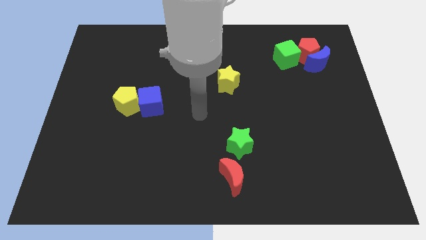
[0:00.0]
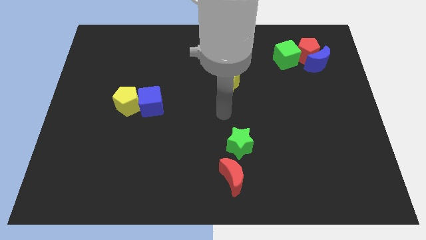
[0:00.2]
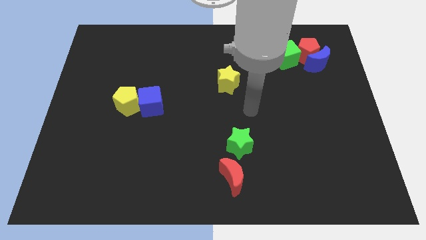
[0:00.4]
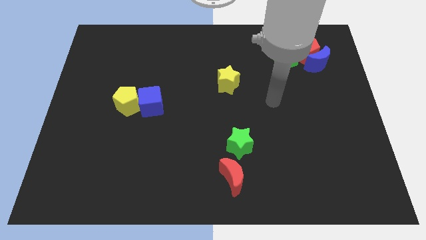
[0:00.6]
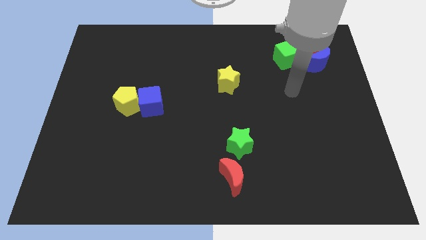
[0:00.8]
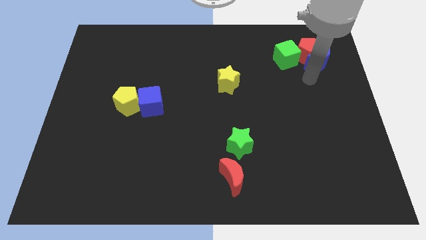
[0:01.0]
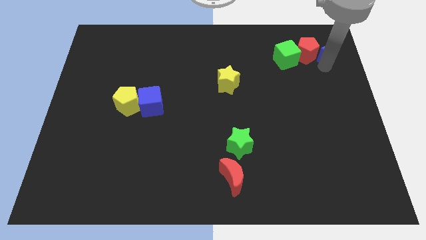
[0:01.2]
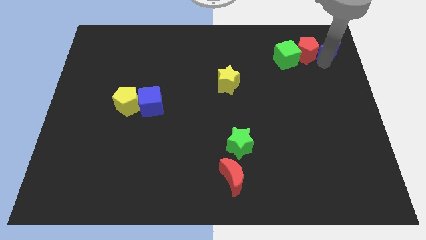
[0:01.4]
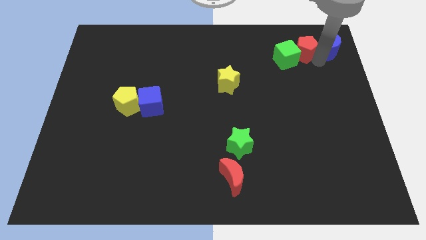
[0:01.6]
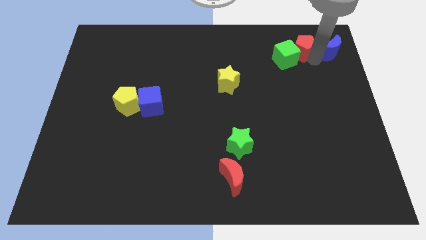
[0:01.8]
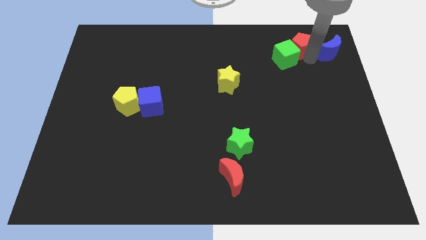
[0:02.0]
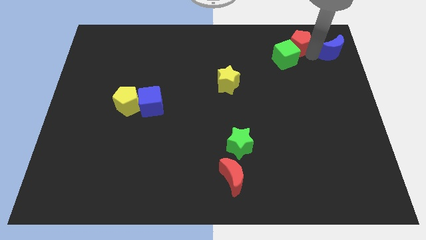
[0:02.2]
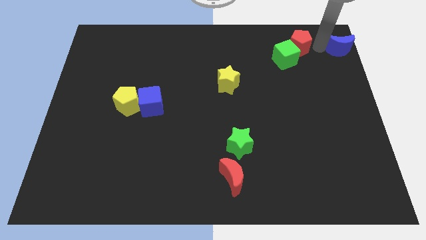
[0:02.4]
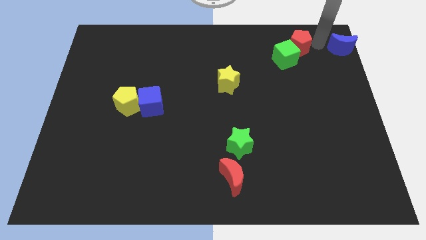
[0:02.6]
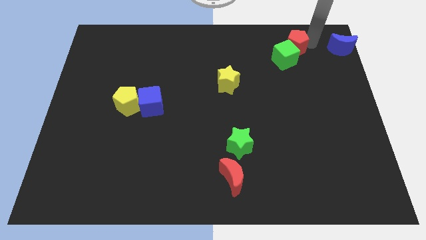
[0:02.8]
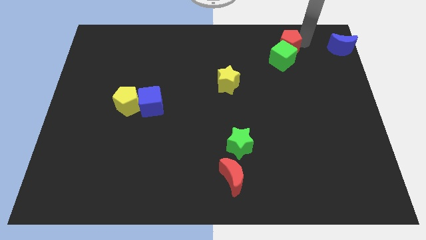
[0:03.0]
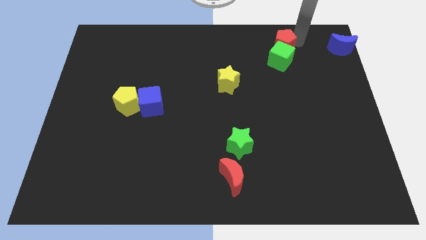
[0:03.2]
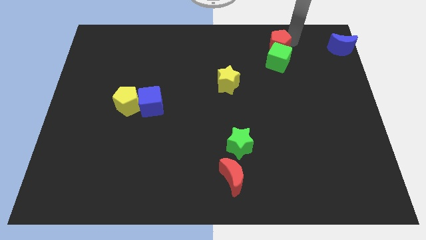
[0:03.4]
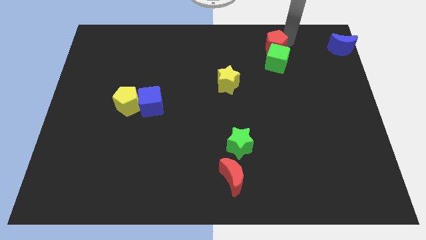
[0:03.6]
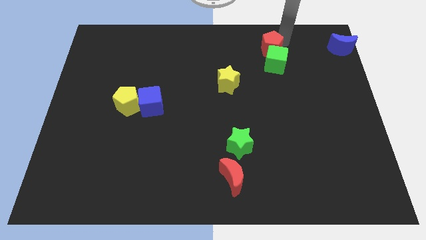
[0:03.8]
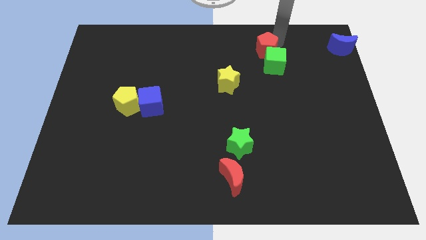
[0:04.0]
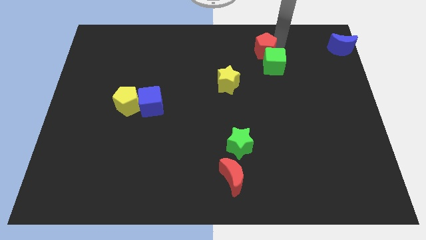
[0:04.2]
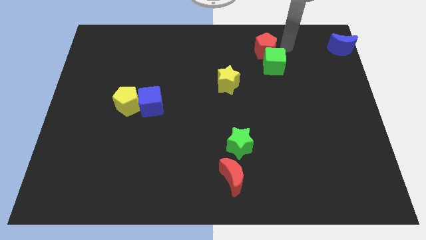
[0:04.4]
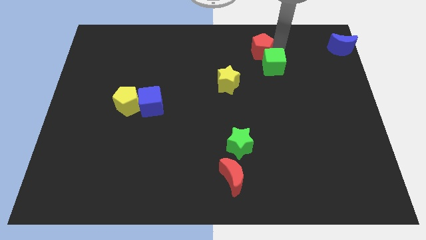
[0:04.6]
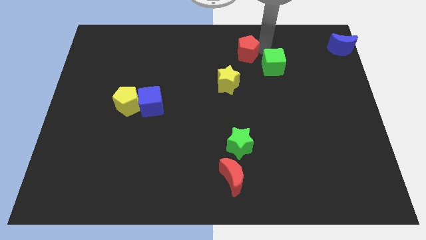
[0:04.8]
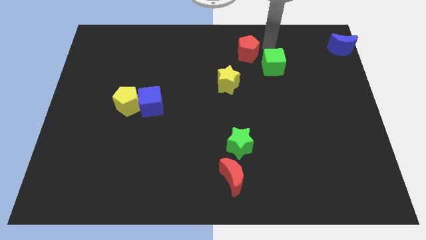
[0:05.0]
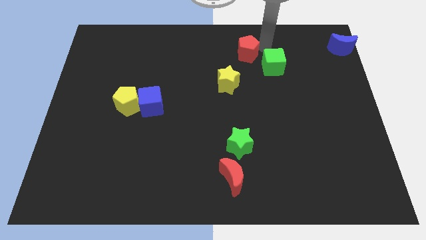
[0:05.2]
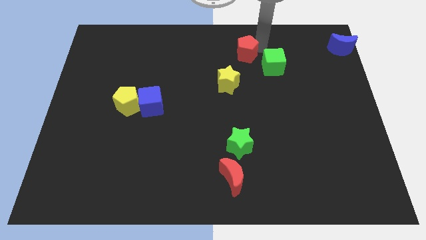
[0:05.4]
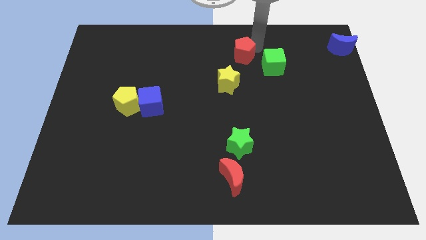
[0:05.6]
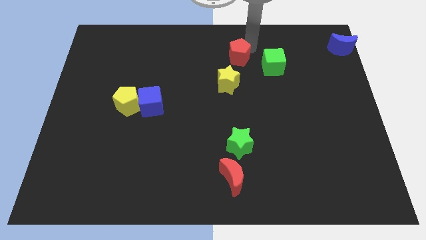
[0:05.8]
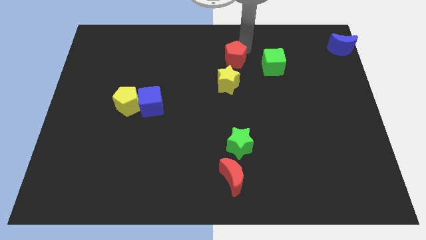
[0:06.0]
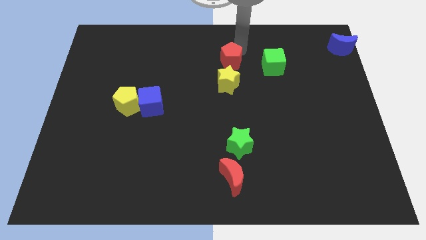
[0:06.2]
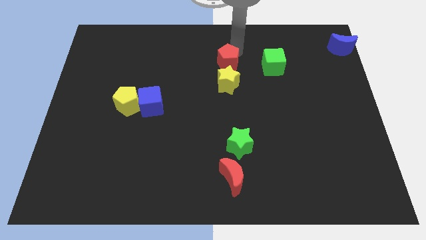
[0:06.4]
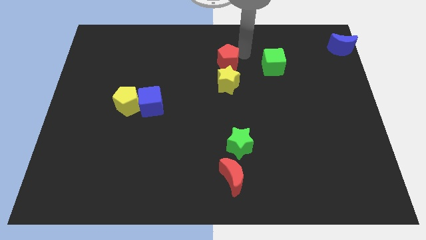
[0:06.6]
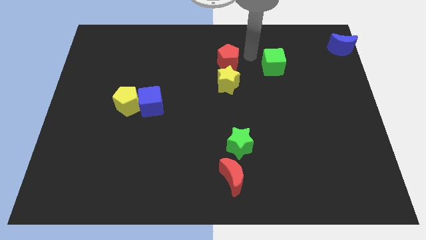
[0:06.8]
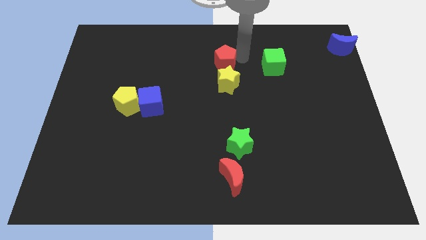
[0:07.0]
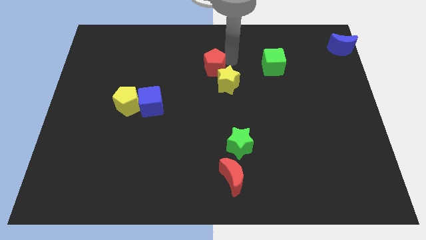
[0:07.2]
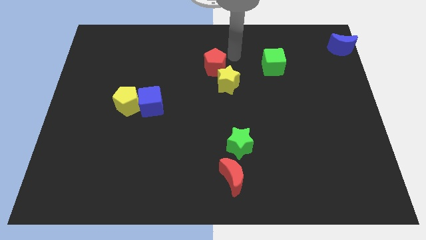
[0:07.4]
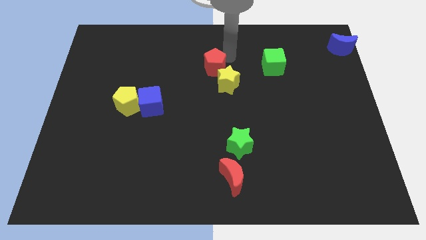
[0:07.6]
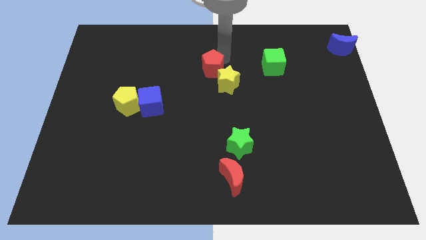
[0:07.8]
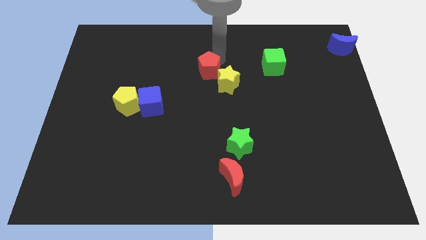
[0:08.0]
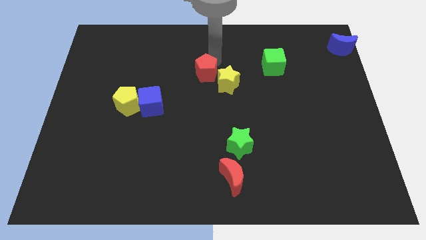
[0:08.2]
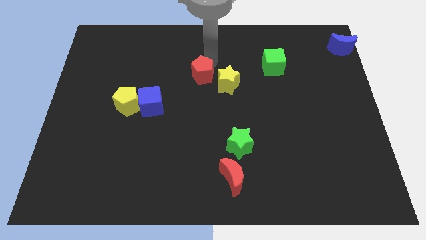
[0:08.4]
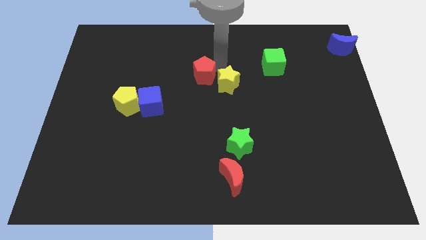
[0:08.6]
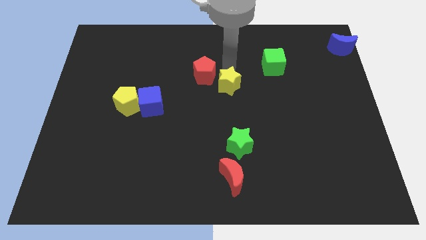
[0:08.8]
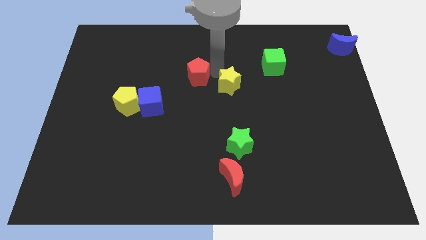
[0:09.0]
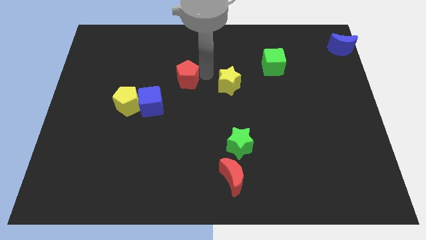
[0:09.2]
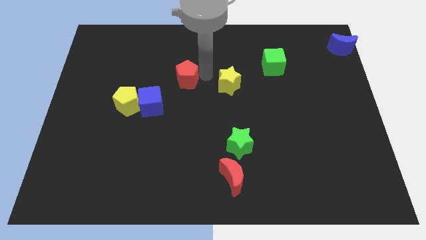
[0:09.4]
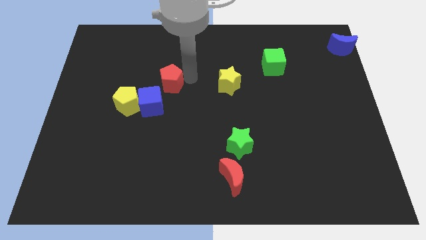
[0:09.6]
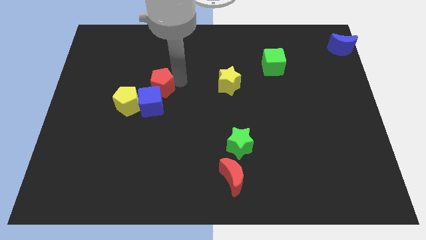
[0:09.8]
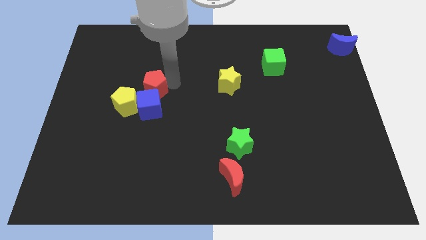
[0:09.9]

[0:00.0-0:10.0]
push the red pentagon to the top left of the blue cube

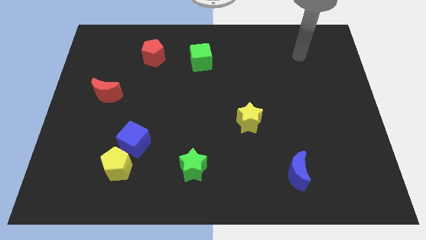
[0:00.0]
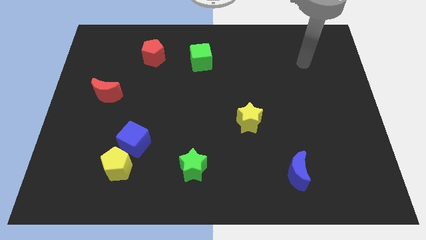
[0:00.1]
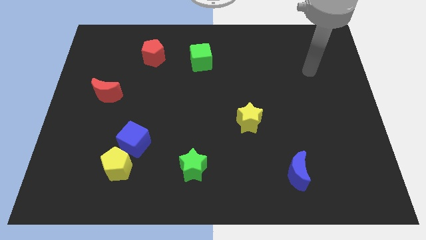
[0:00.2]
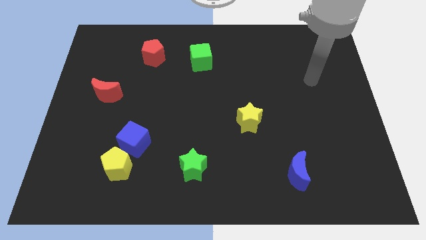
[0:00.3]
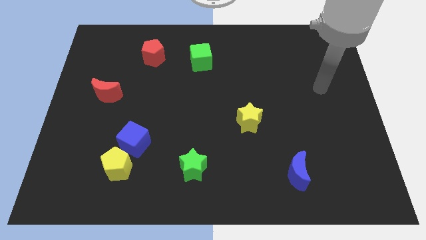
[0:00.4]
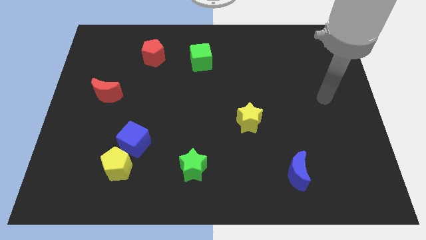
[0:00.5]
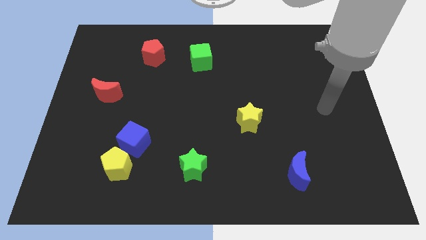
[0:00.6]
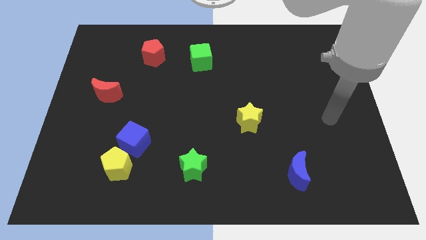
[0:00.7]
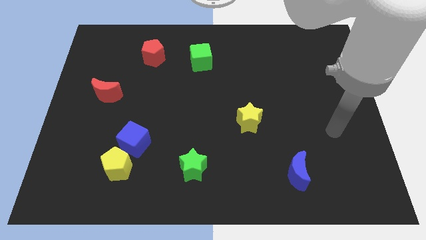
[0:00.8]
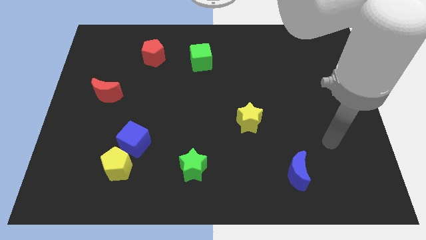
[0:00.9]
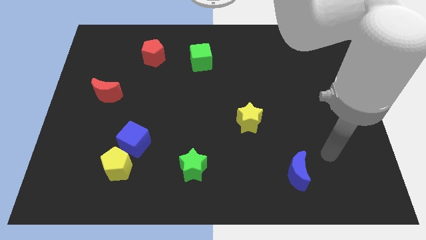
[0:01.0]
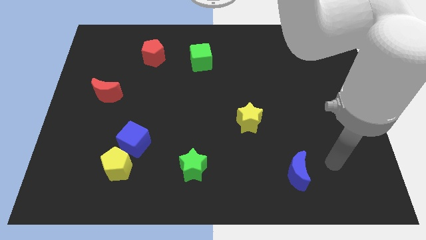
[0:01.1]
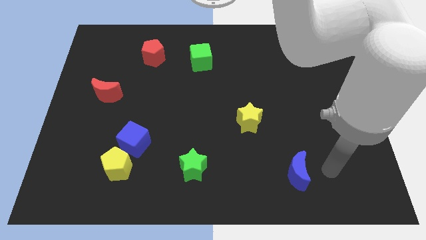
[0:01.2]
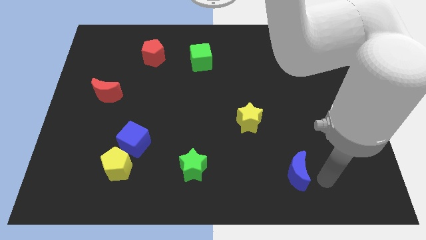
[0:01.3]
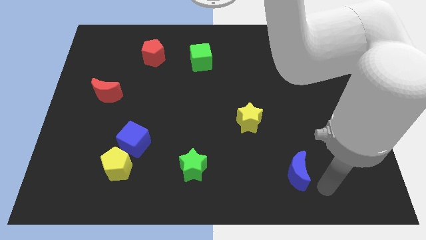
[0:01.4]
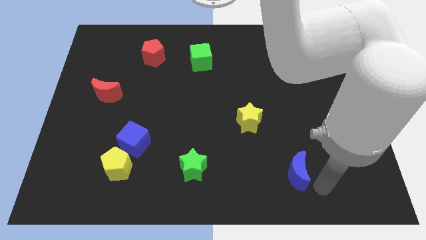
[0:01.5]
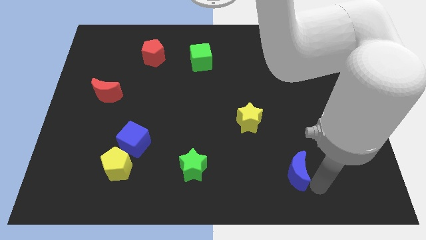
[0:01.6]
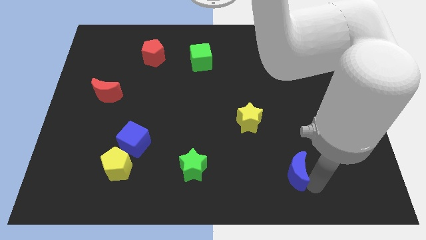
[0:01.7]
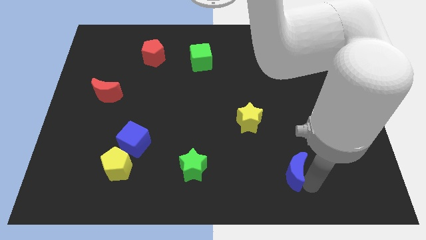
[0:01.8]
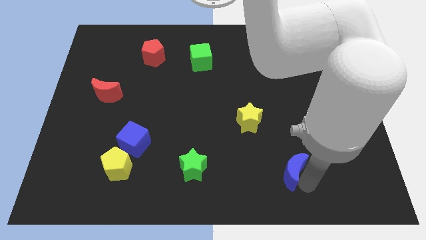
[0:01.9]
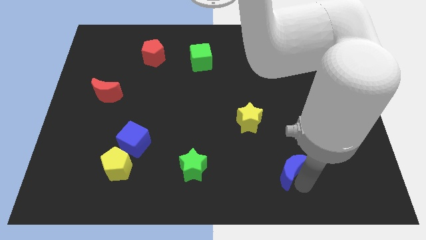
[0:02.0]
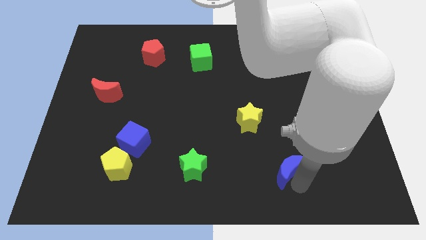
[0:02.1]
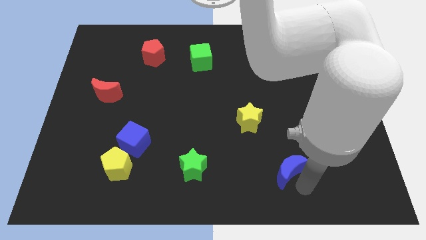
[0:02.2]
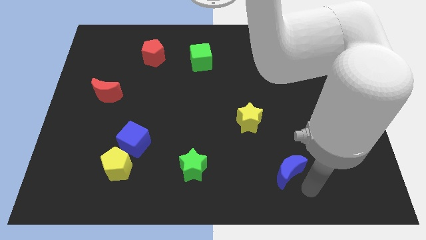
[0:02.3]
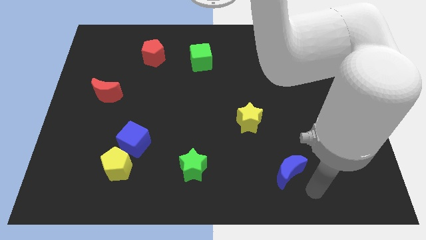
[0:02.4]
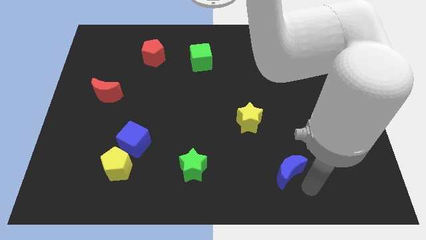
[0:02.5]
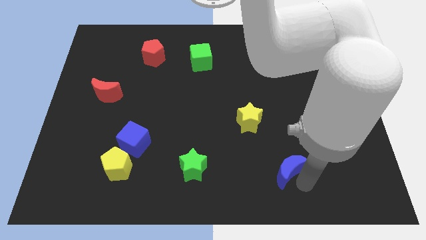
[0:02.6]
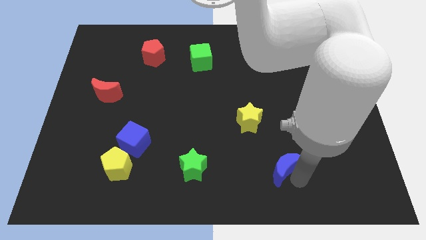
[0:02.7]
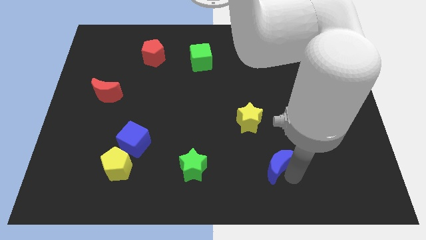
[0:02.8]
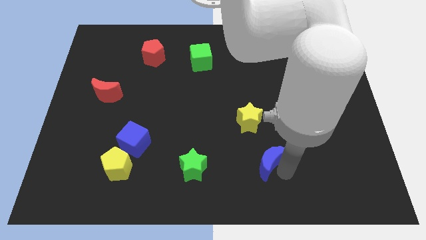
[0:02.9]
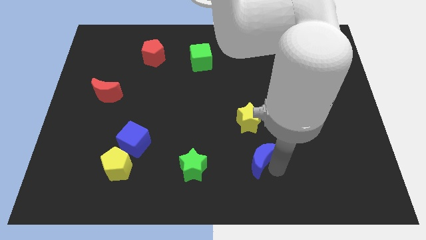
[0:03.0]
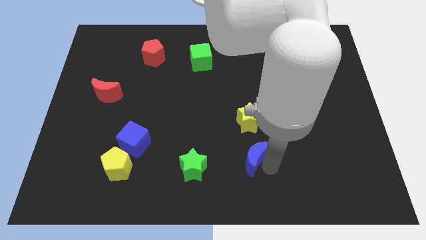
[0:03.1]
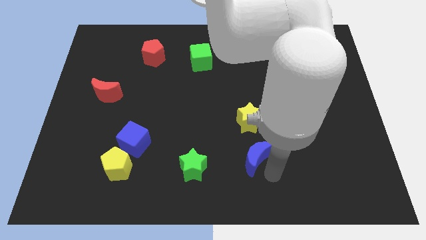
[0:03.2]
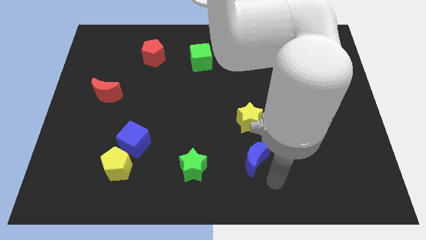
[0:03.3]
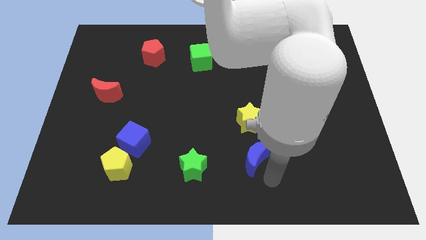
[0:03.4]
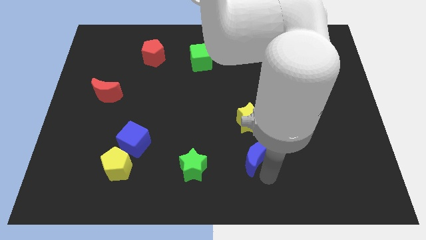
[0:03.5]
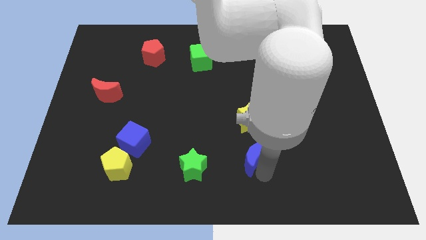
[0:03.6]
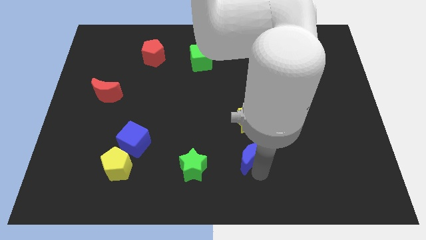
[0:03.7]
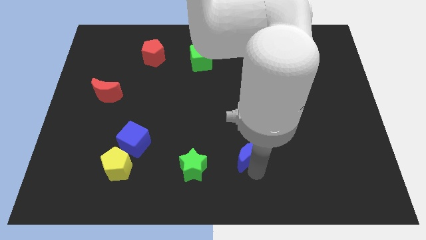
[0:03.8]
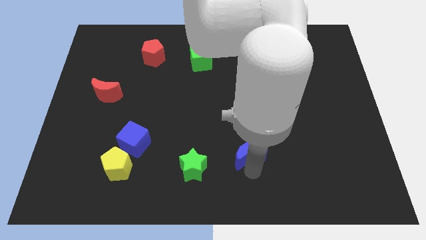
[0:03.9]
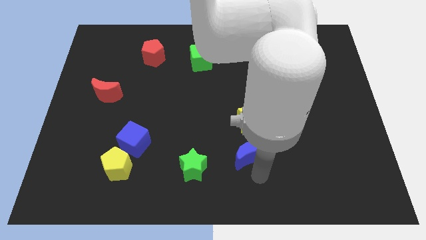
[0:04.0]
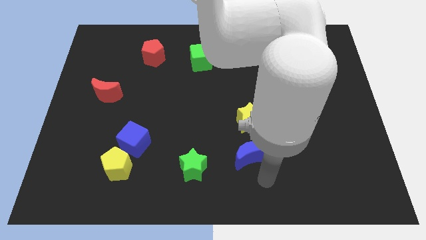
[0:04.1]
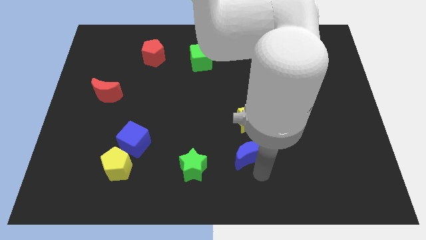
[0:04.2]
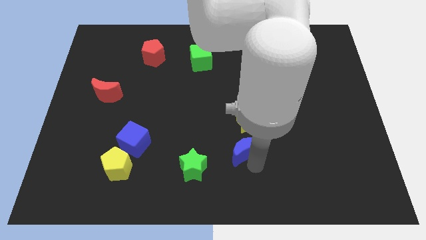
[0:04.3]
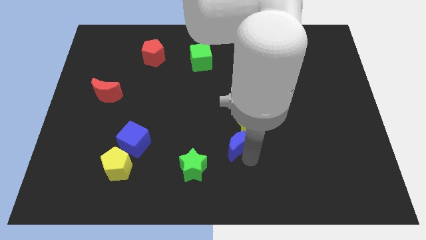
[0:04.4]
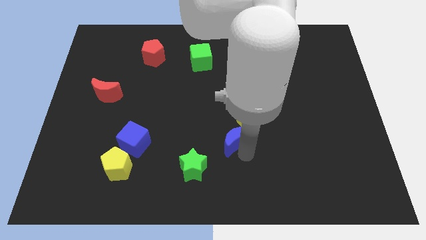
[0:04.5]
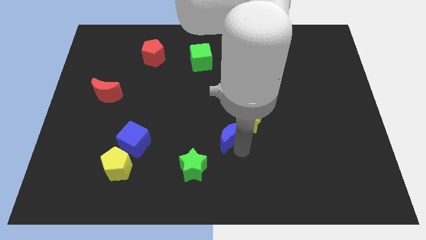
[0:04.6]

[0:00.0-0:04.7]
move the blue moon left of the yellow star
